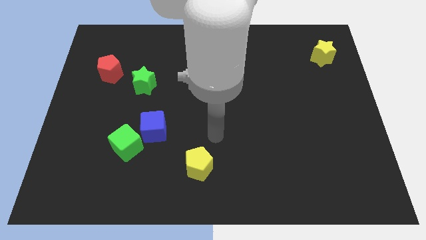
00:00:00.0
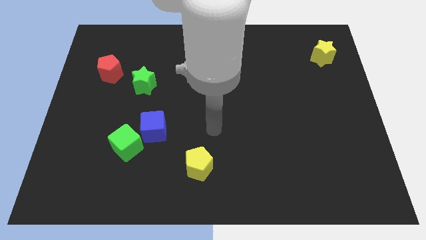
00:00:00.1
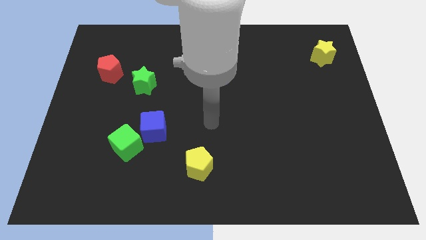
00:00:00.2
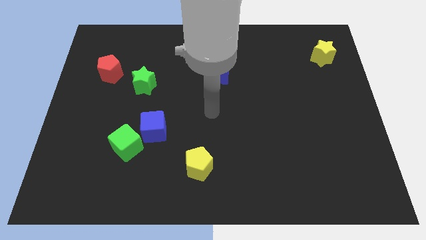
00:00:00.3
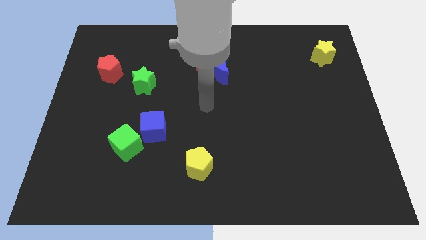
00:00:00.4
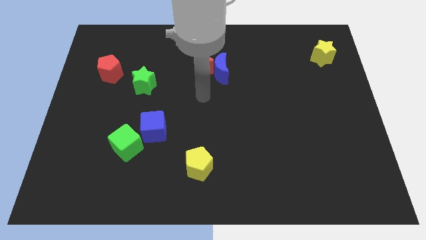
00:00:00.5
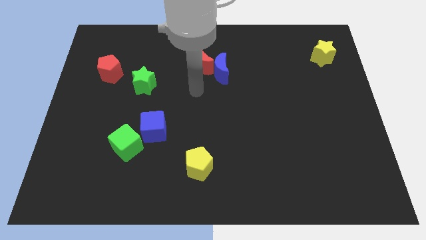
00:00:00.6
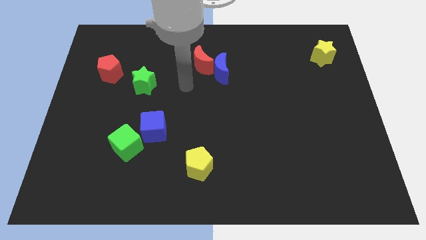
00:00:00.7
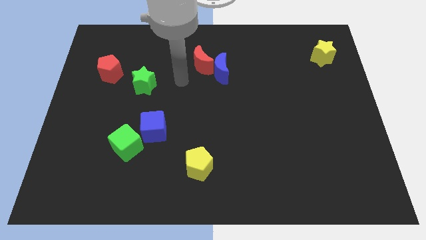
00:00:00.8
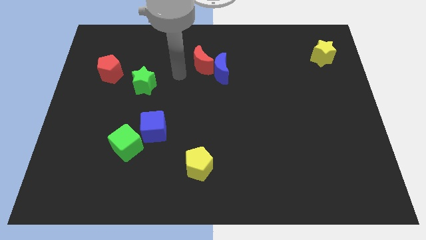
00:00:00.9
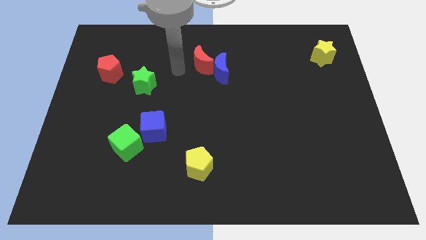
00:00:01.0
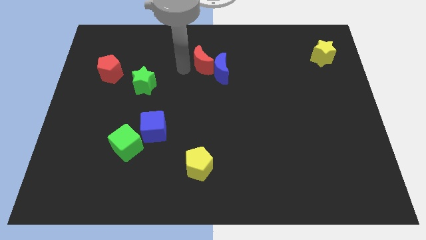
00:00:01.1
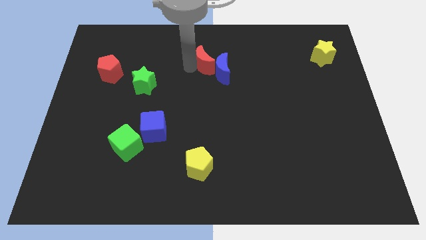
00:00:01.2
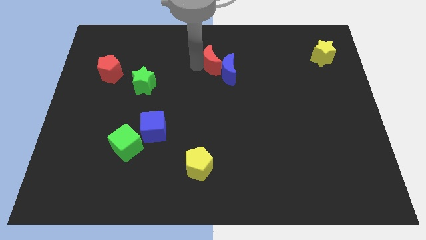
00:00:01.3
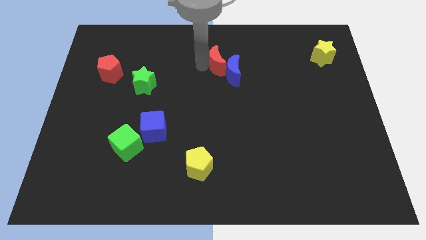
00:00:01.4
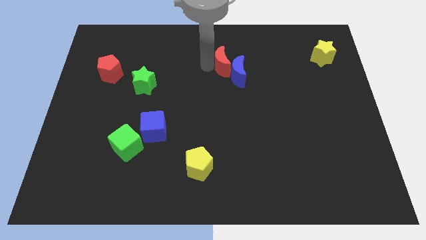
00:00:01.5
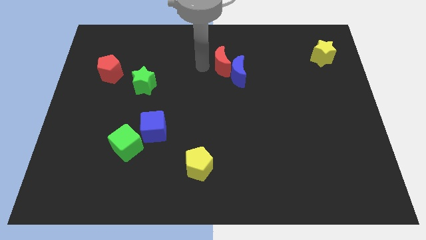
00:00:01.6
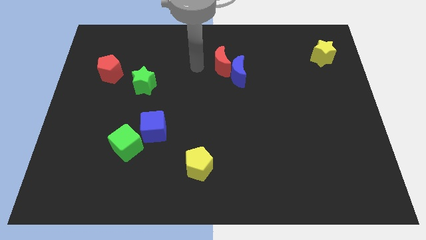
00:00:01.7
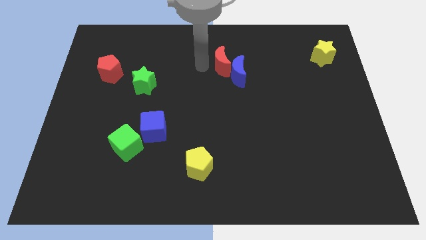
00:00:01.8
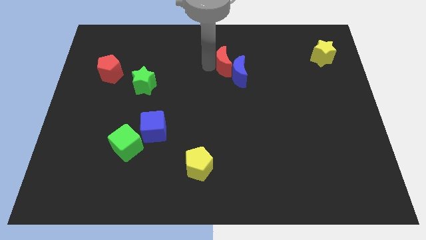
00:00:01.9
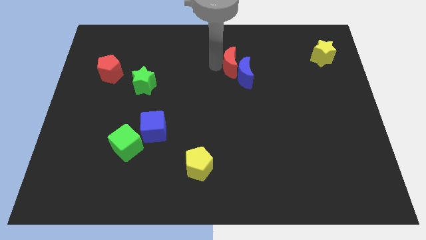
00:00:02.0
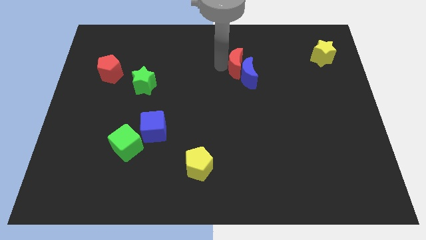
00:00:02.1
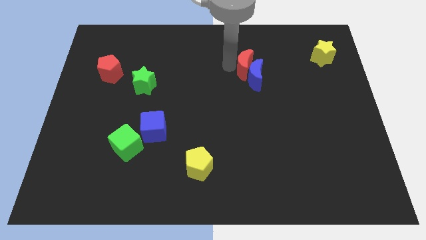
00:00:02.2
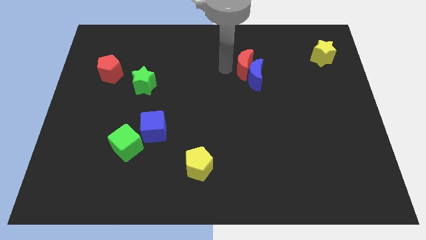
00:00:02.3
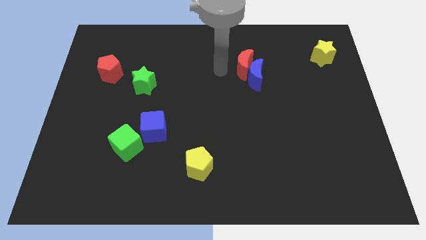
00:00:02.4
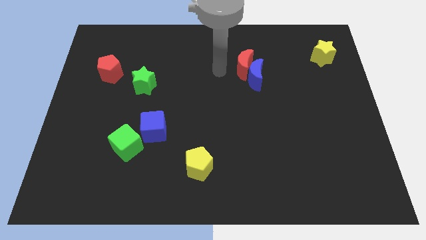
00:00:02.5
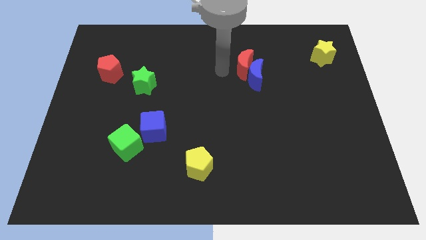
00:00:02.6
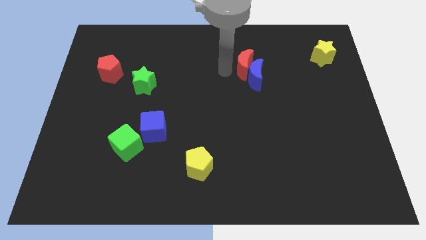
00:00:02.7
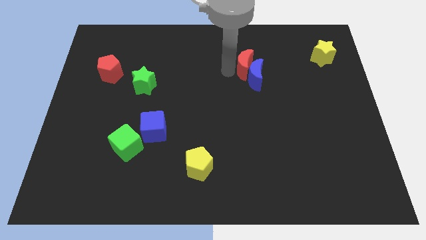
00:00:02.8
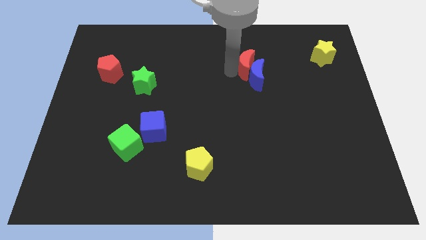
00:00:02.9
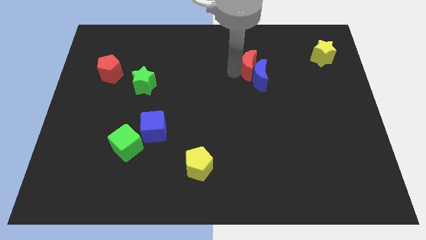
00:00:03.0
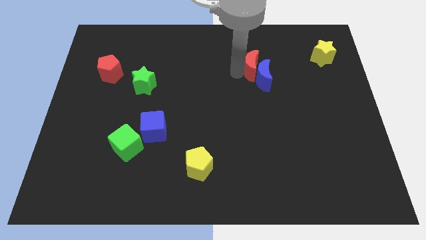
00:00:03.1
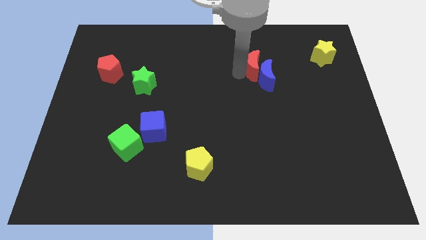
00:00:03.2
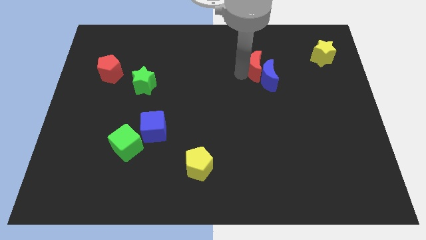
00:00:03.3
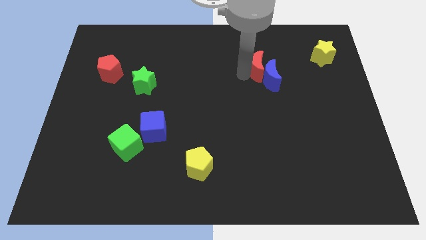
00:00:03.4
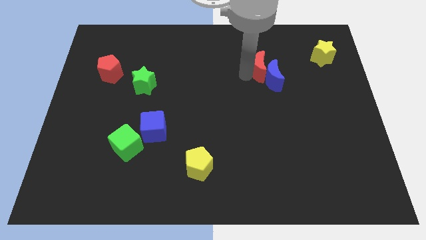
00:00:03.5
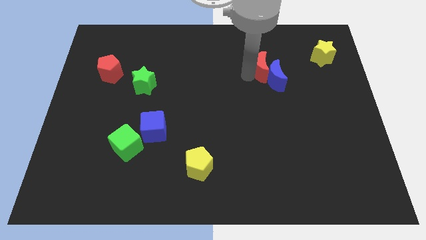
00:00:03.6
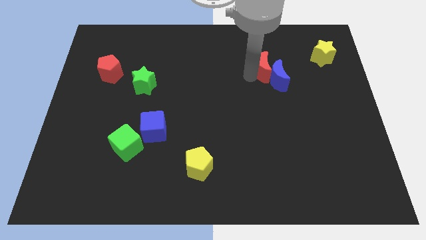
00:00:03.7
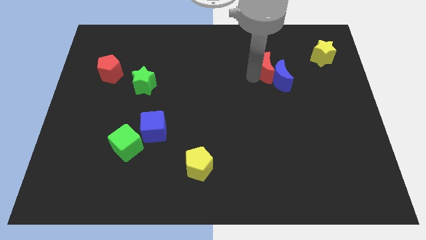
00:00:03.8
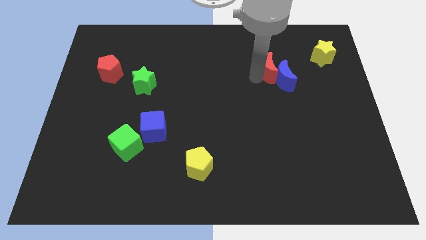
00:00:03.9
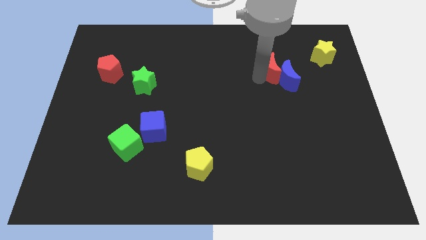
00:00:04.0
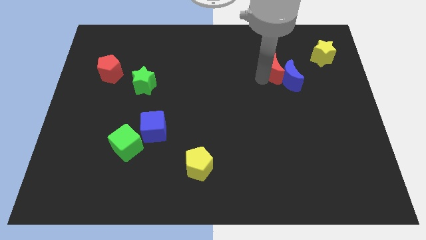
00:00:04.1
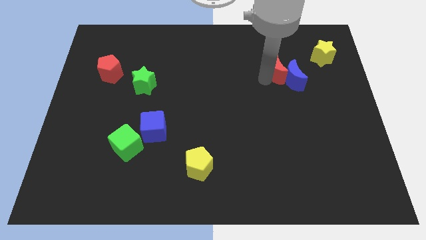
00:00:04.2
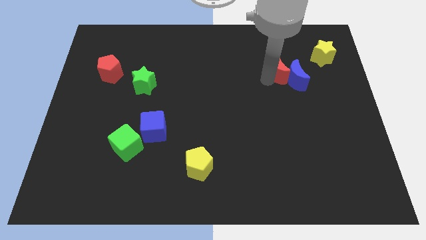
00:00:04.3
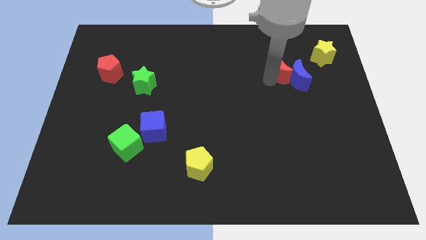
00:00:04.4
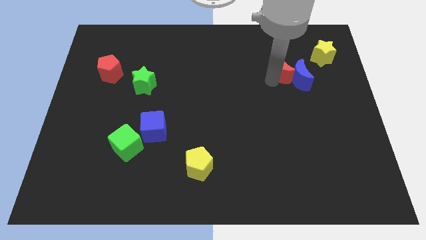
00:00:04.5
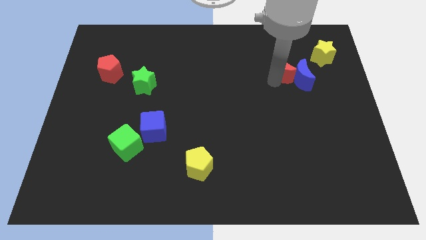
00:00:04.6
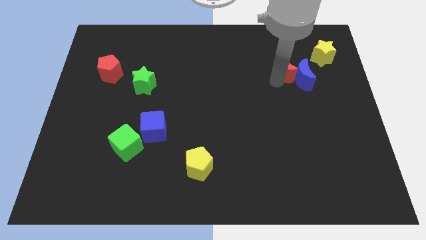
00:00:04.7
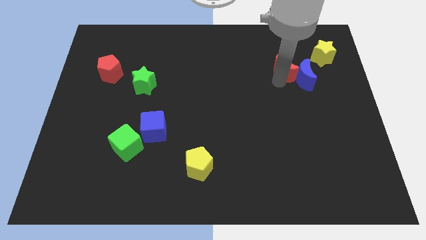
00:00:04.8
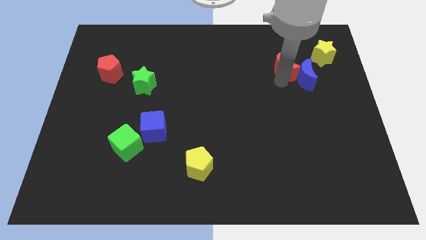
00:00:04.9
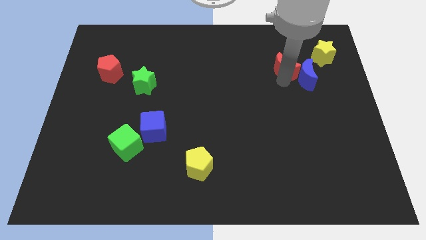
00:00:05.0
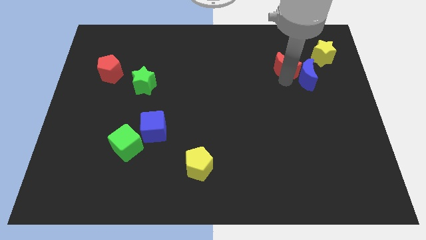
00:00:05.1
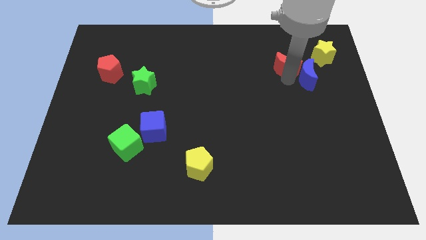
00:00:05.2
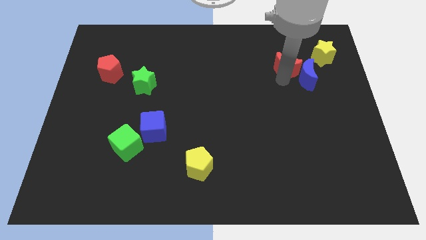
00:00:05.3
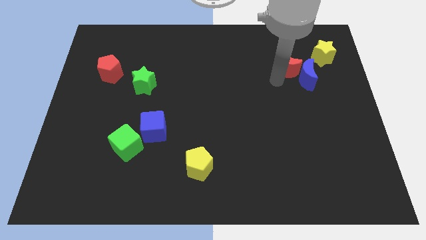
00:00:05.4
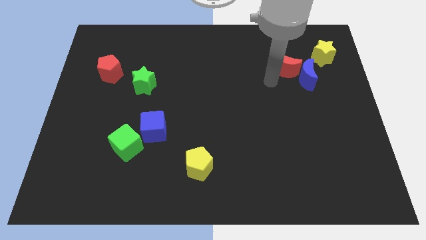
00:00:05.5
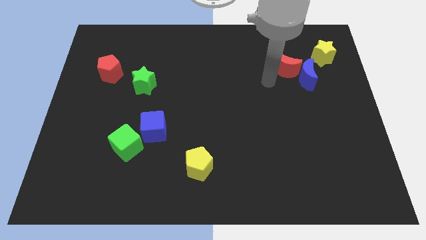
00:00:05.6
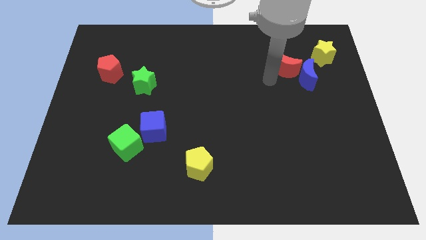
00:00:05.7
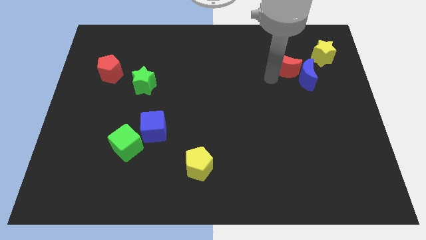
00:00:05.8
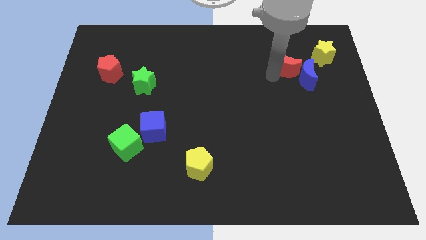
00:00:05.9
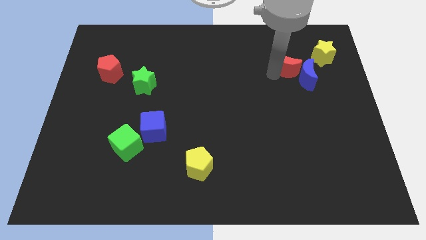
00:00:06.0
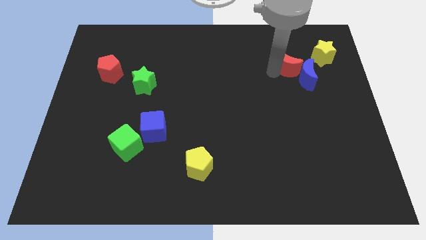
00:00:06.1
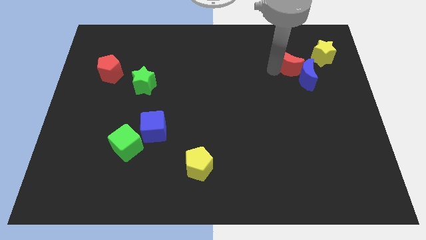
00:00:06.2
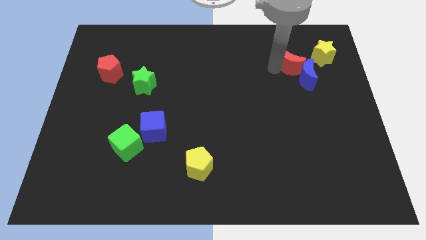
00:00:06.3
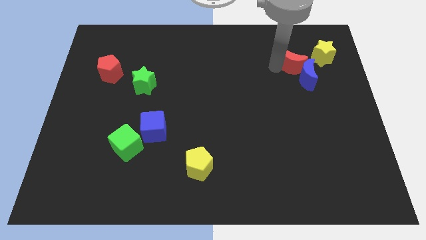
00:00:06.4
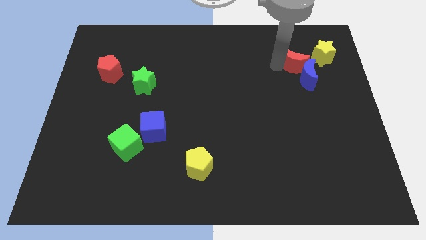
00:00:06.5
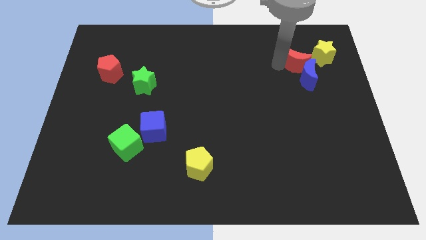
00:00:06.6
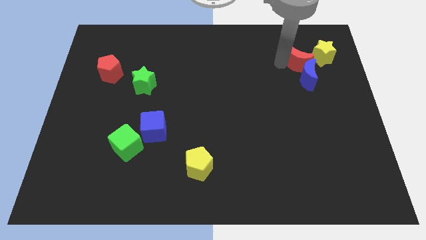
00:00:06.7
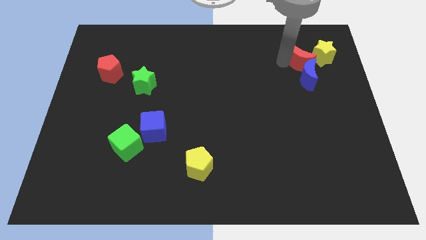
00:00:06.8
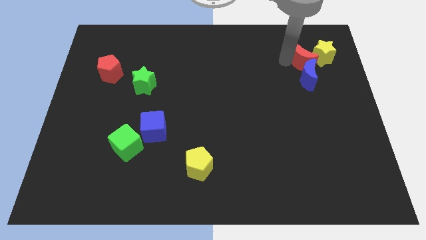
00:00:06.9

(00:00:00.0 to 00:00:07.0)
put the red moon towards the yellow star
